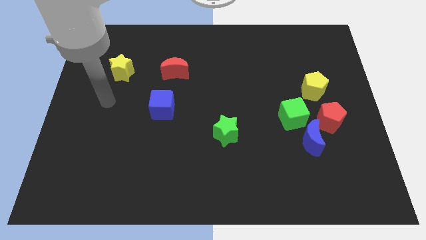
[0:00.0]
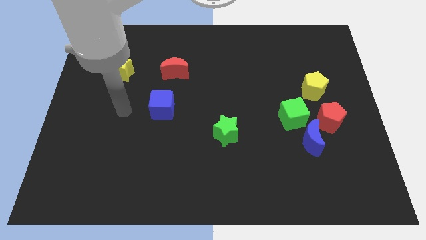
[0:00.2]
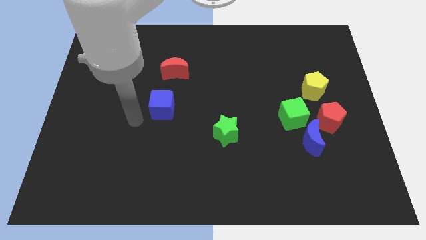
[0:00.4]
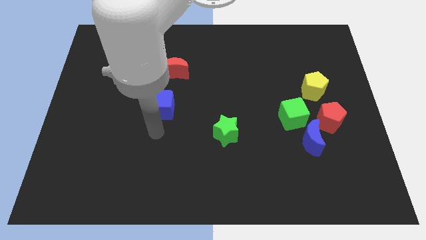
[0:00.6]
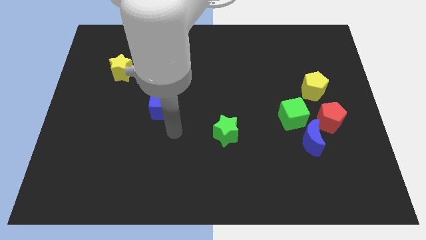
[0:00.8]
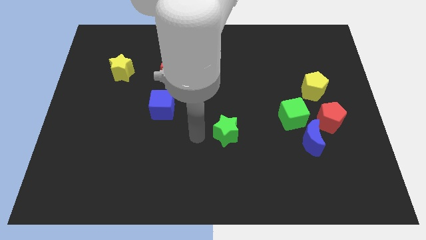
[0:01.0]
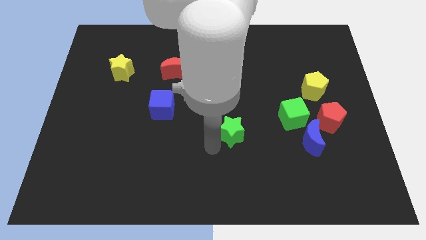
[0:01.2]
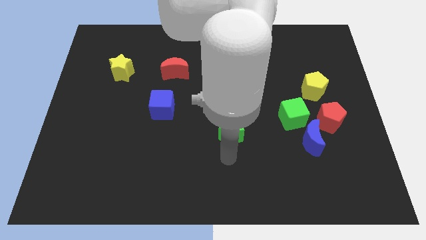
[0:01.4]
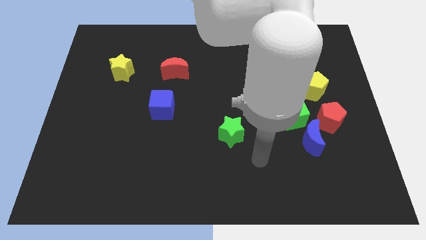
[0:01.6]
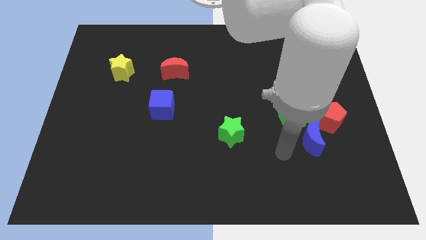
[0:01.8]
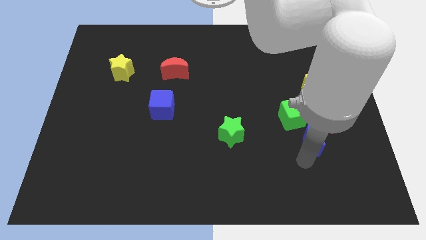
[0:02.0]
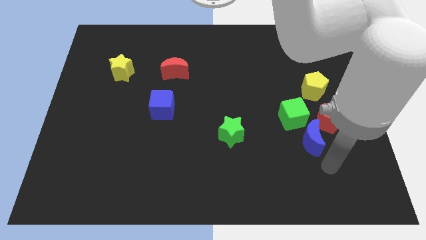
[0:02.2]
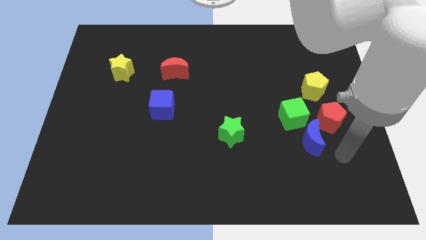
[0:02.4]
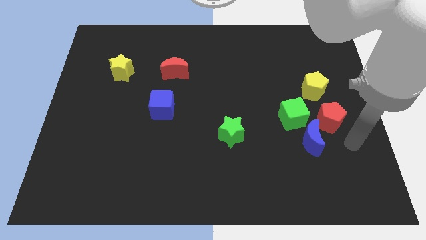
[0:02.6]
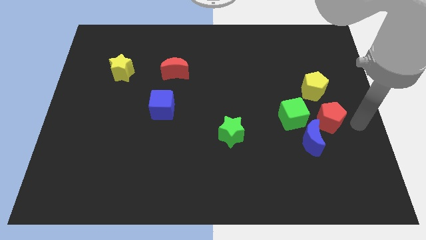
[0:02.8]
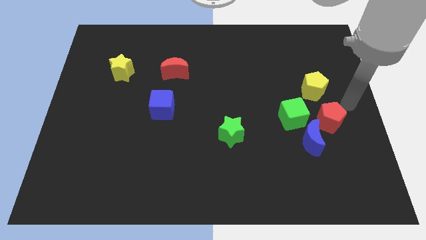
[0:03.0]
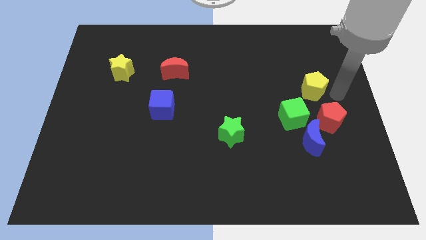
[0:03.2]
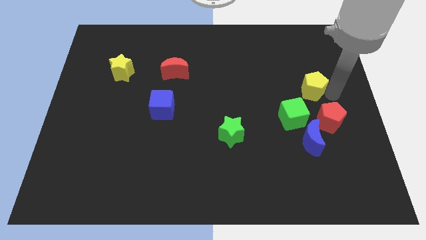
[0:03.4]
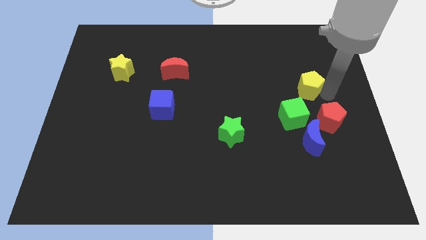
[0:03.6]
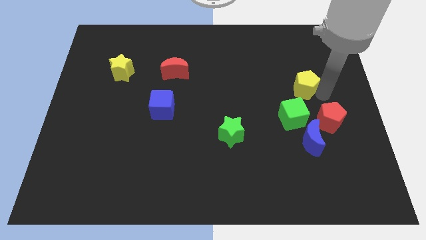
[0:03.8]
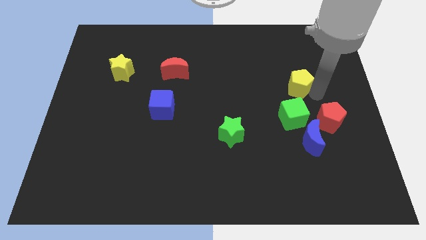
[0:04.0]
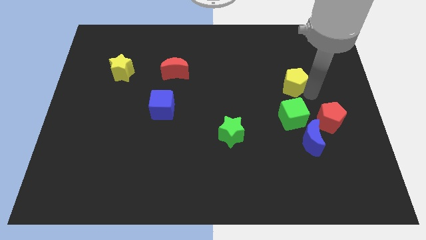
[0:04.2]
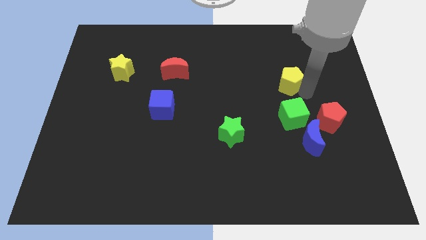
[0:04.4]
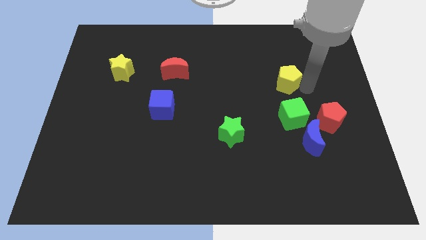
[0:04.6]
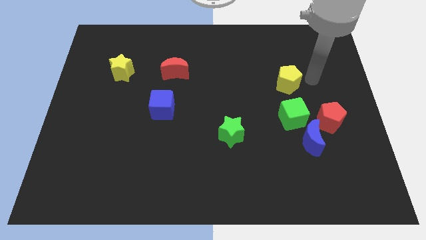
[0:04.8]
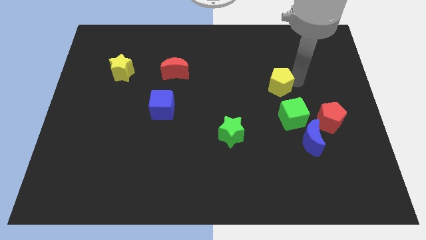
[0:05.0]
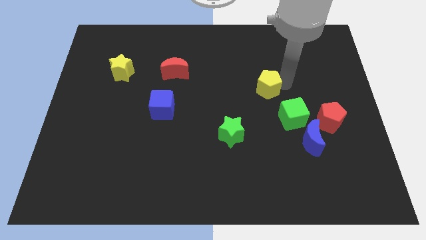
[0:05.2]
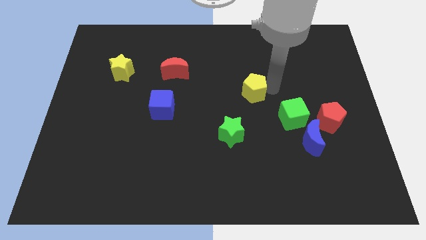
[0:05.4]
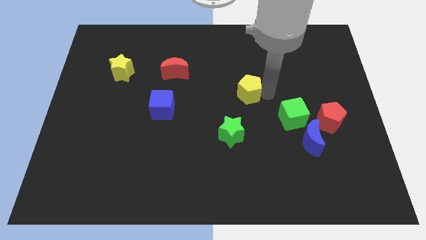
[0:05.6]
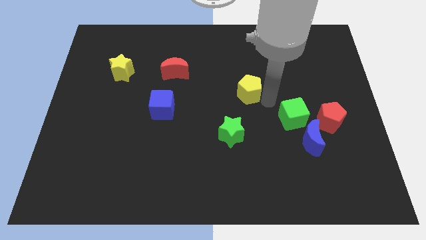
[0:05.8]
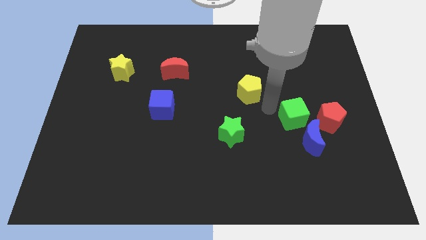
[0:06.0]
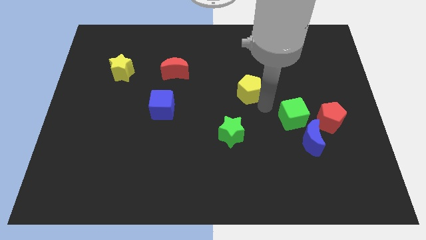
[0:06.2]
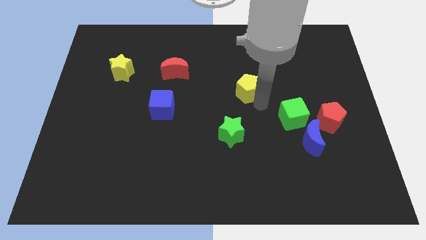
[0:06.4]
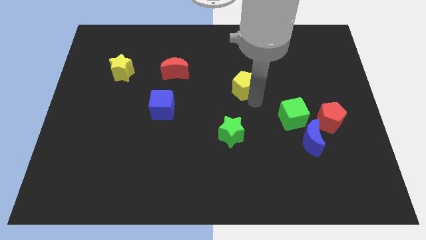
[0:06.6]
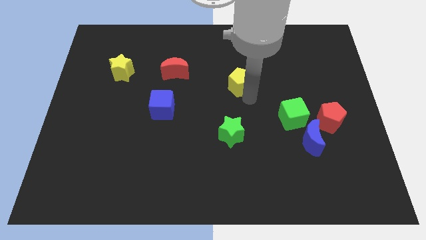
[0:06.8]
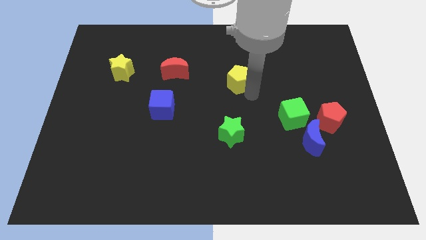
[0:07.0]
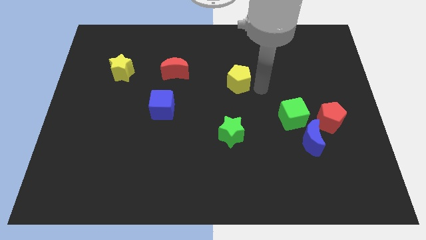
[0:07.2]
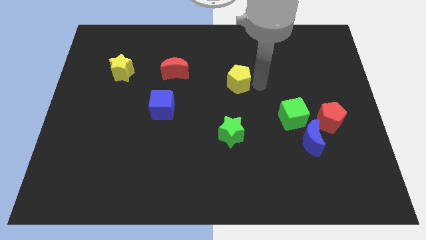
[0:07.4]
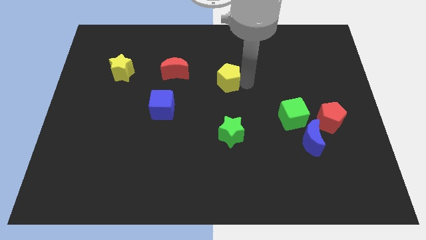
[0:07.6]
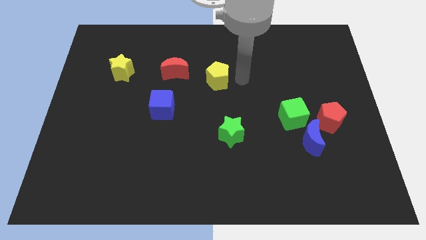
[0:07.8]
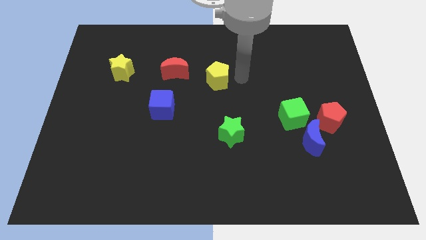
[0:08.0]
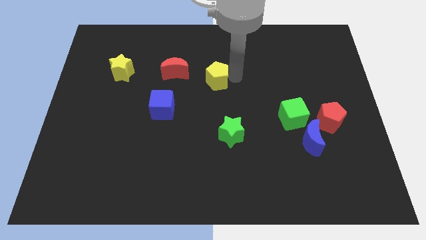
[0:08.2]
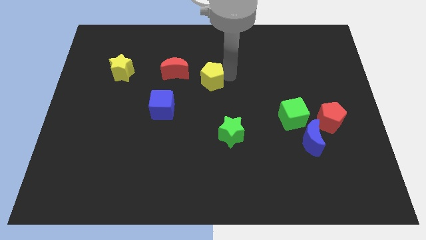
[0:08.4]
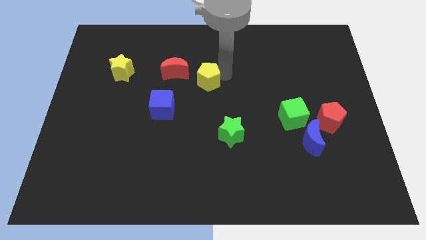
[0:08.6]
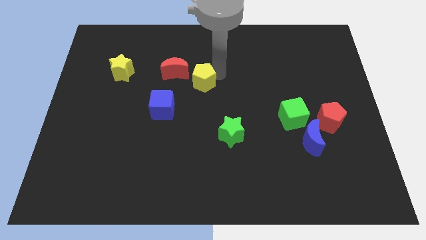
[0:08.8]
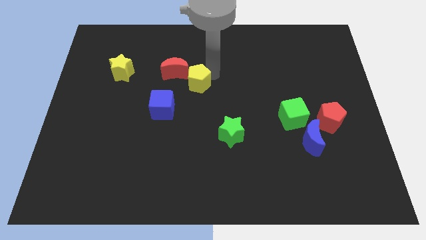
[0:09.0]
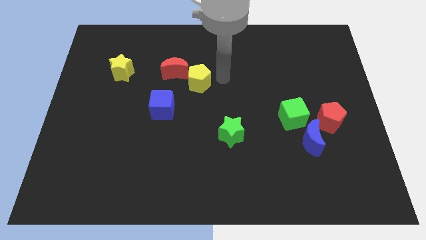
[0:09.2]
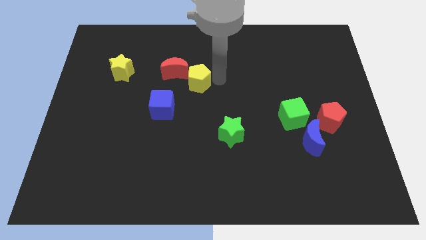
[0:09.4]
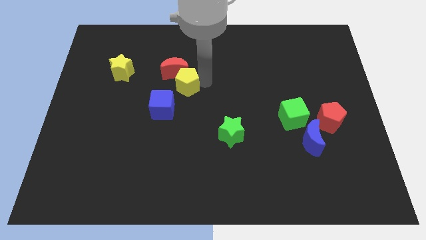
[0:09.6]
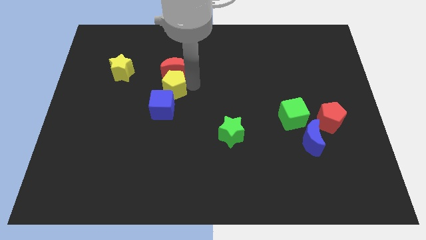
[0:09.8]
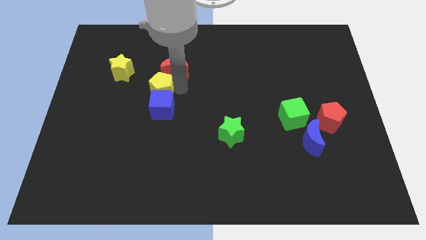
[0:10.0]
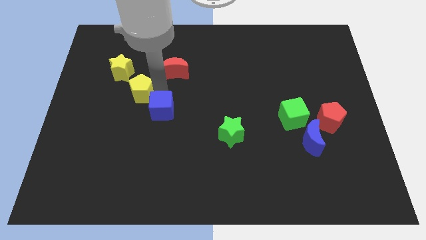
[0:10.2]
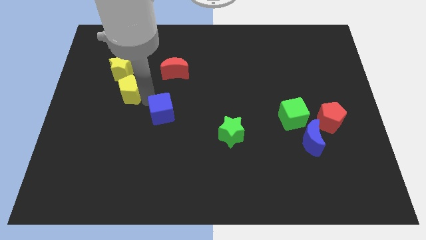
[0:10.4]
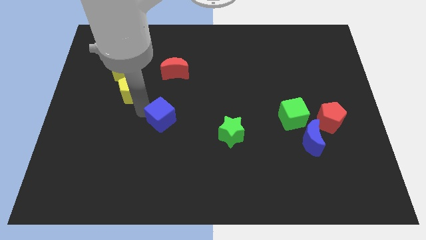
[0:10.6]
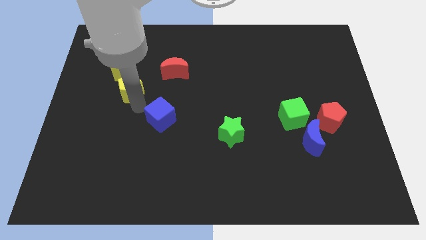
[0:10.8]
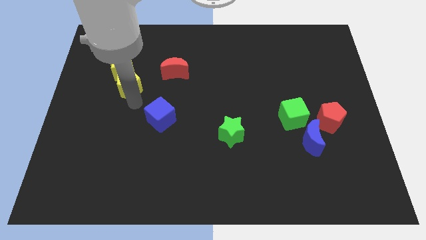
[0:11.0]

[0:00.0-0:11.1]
slide the yellow pentagon next to the yellow star

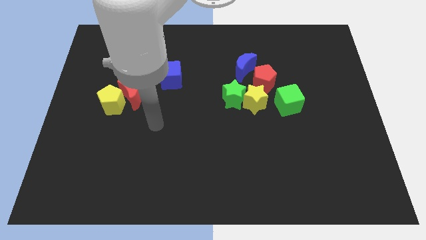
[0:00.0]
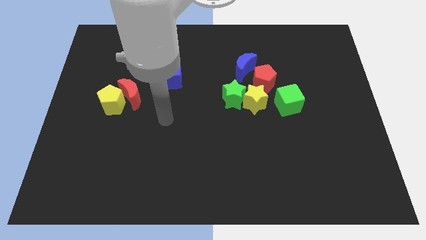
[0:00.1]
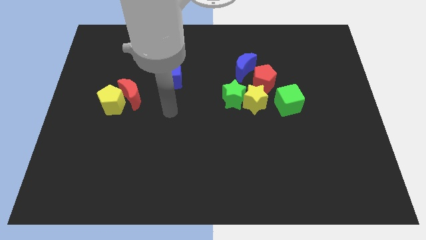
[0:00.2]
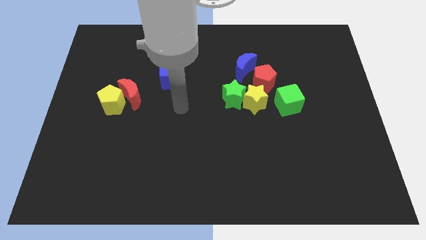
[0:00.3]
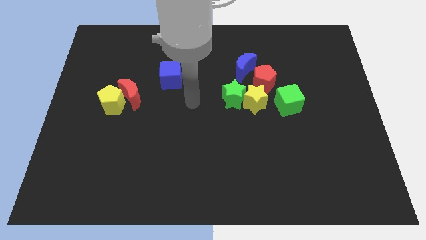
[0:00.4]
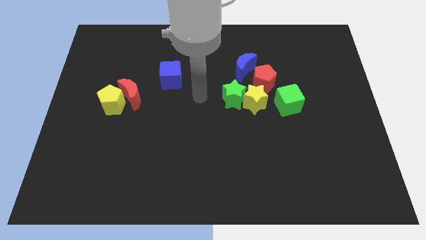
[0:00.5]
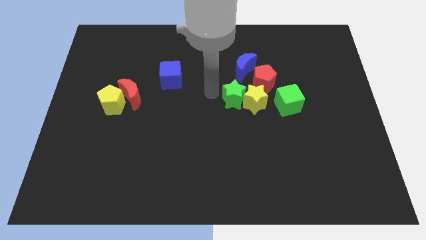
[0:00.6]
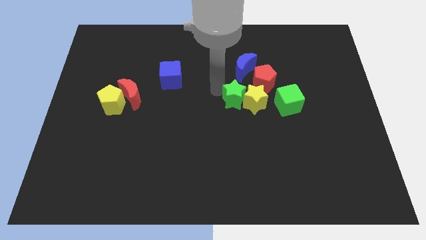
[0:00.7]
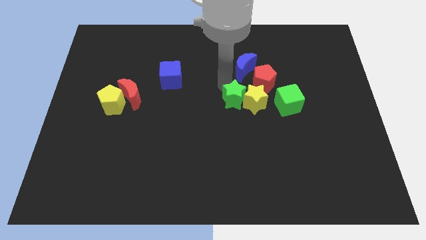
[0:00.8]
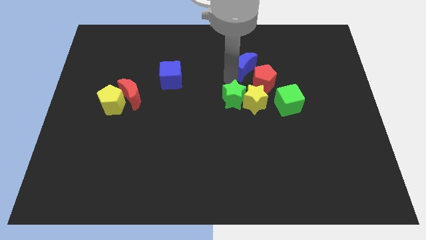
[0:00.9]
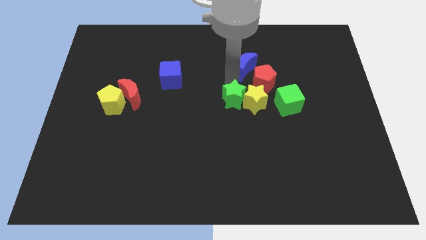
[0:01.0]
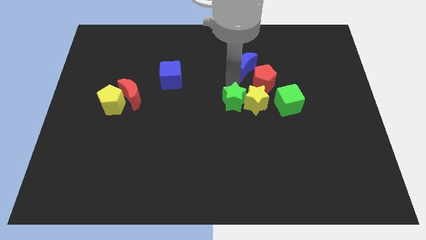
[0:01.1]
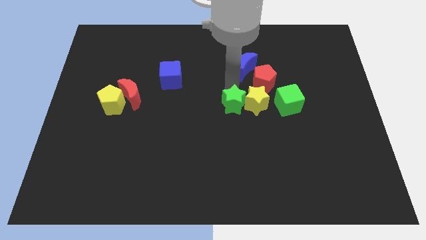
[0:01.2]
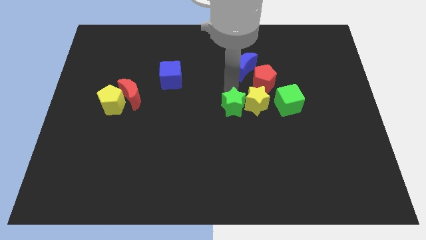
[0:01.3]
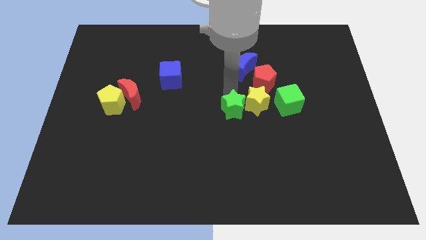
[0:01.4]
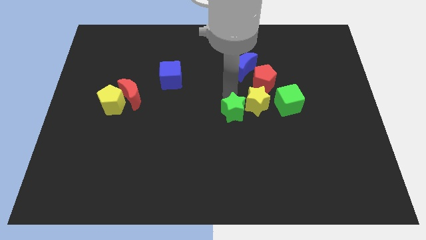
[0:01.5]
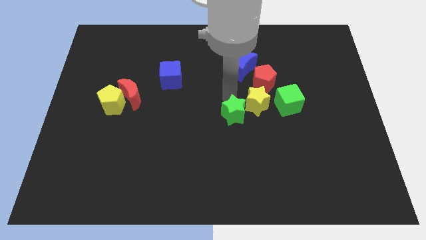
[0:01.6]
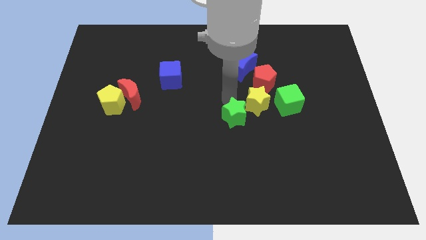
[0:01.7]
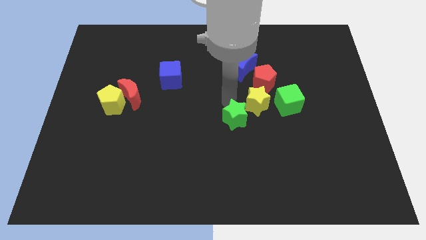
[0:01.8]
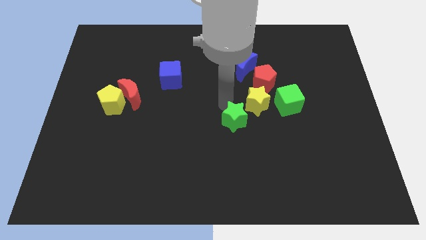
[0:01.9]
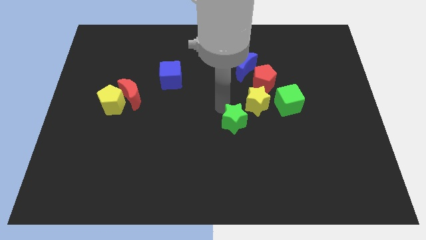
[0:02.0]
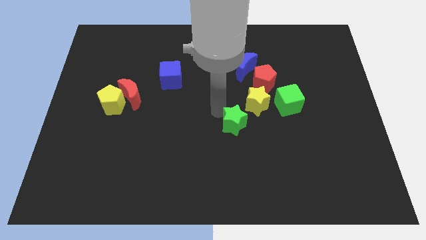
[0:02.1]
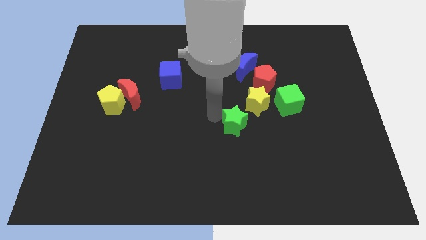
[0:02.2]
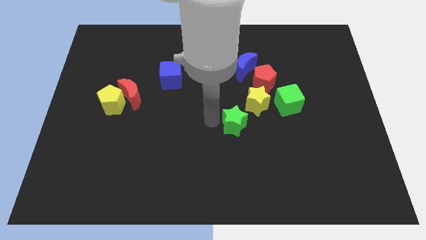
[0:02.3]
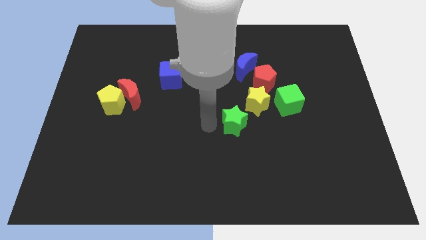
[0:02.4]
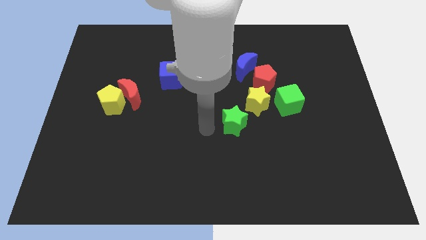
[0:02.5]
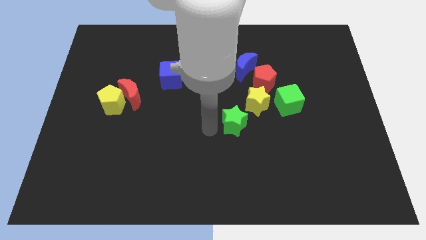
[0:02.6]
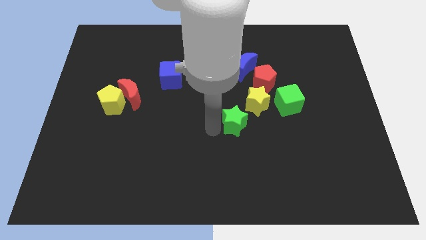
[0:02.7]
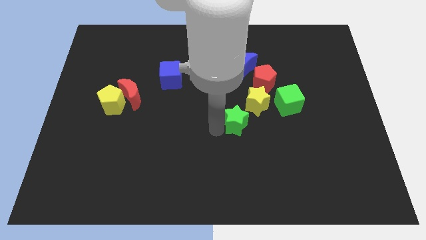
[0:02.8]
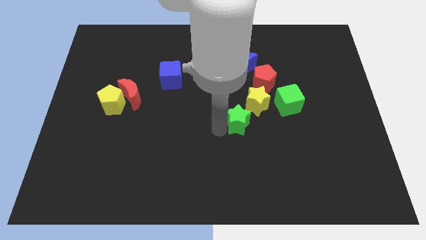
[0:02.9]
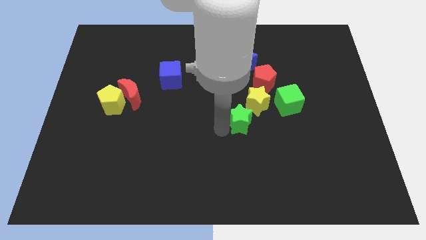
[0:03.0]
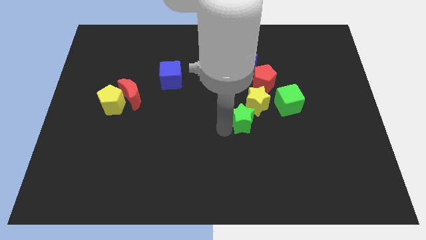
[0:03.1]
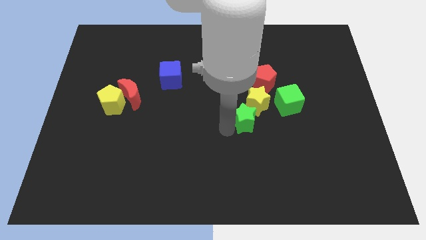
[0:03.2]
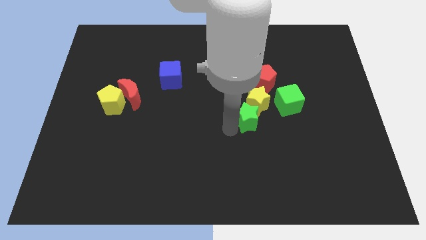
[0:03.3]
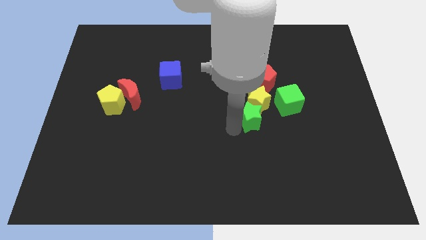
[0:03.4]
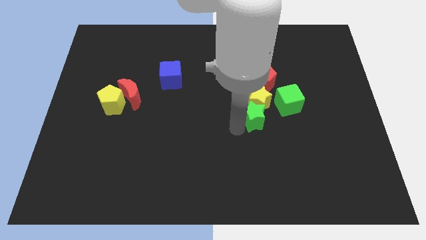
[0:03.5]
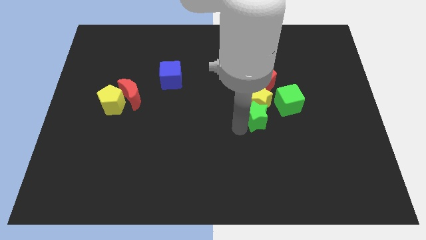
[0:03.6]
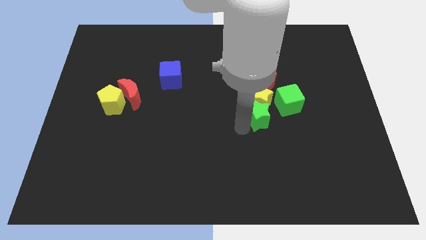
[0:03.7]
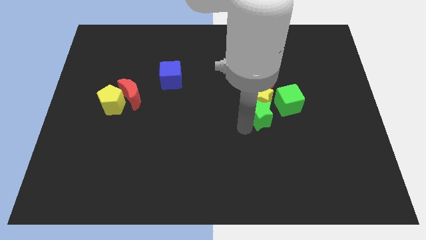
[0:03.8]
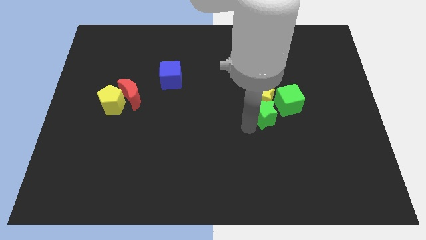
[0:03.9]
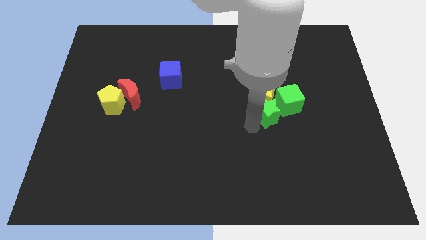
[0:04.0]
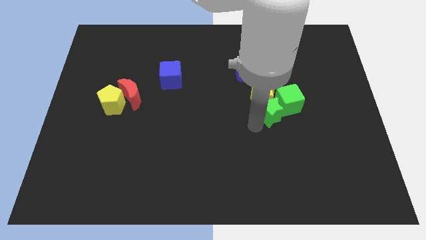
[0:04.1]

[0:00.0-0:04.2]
slide the green star to the green cube
